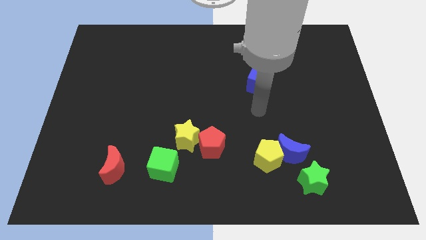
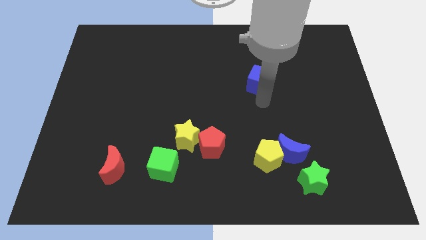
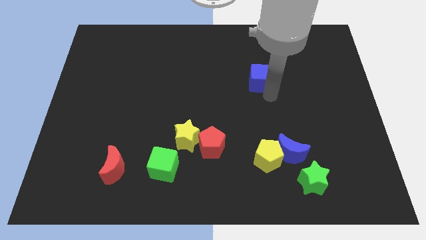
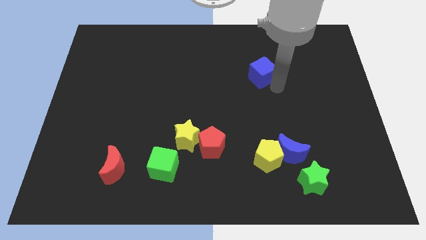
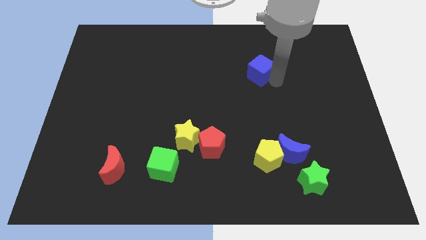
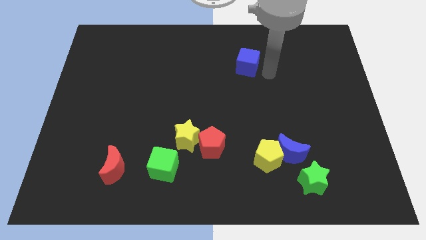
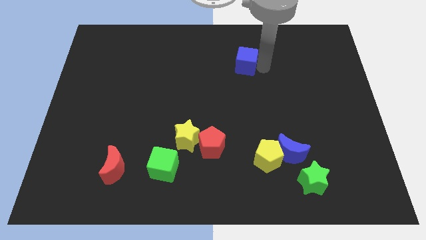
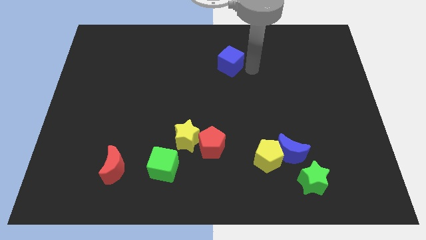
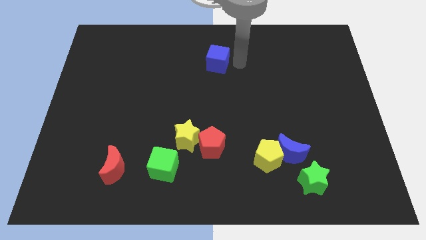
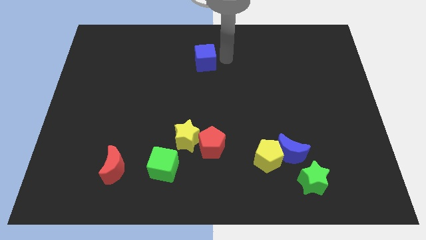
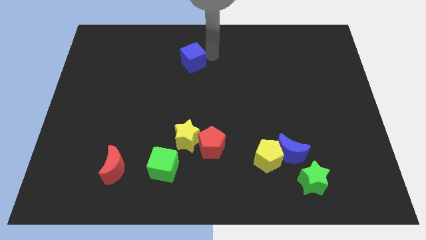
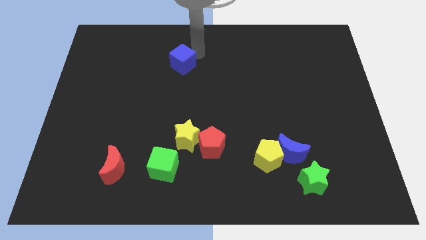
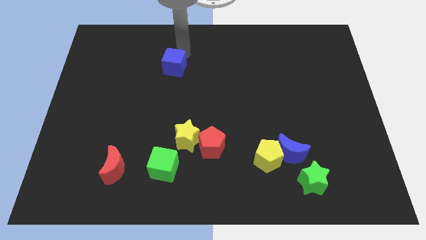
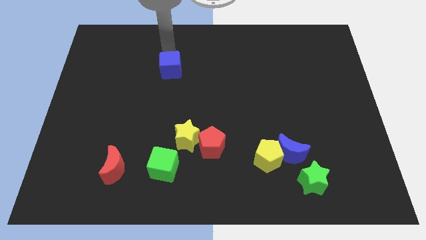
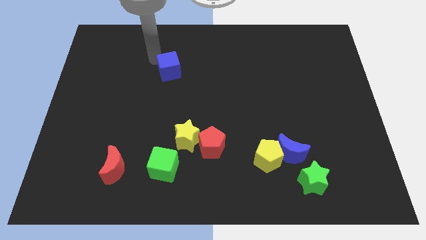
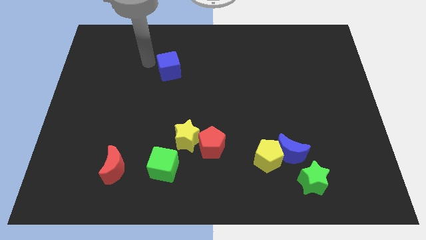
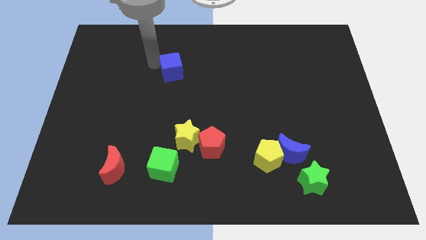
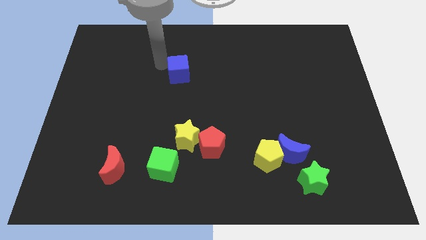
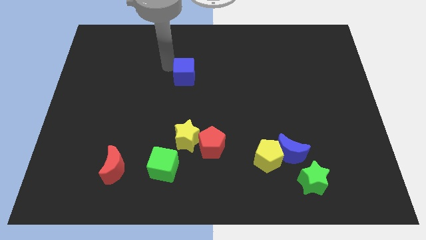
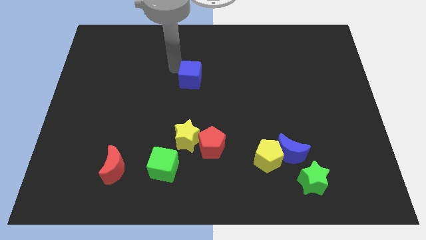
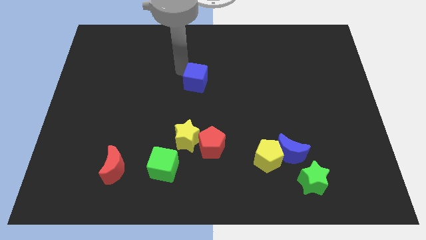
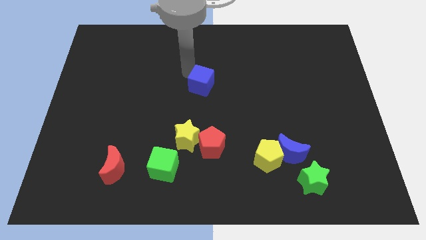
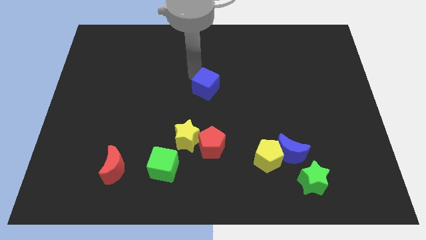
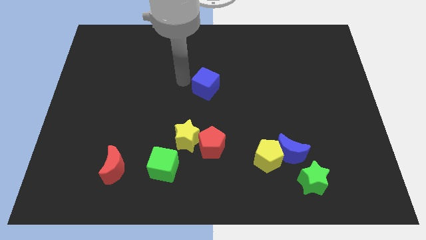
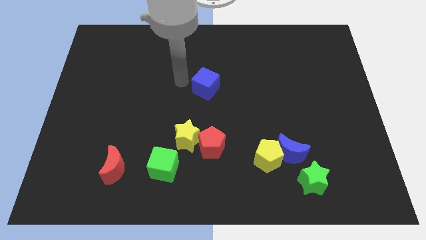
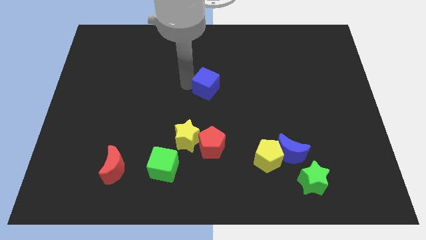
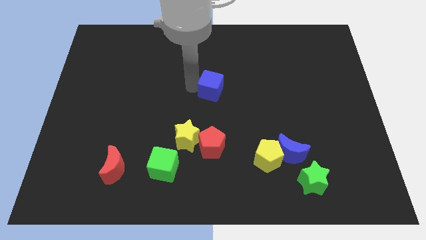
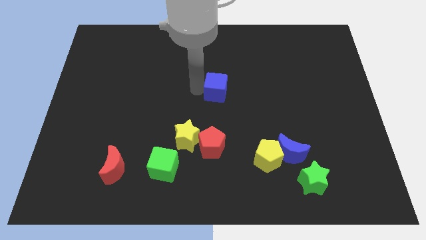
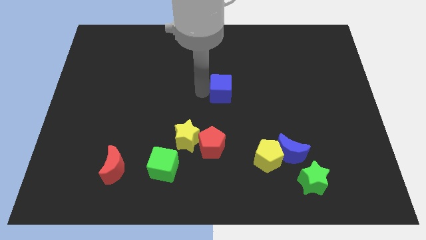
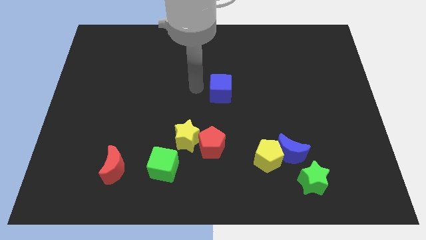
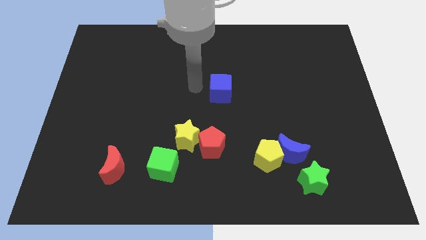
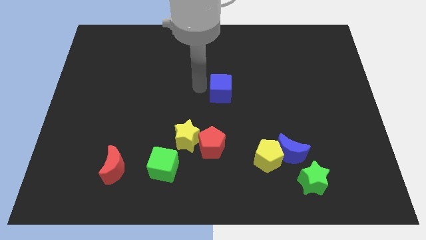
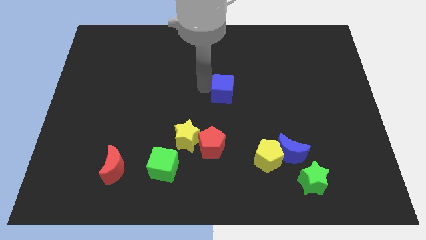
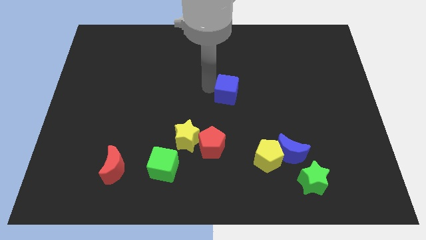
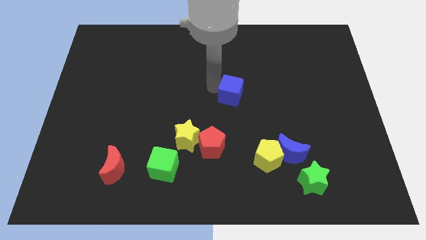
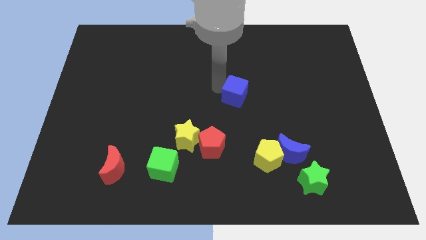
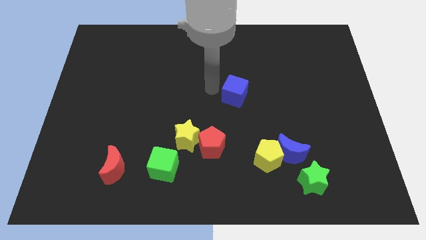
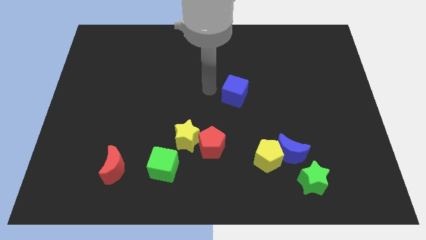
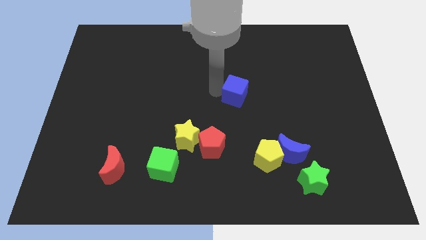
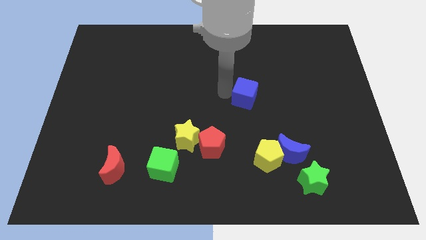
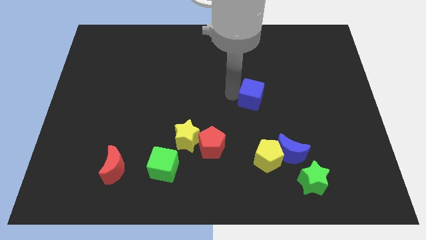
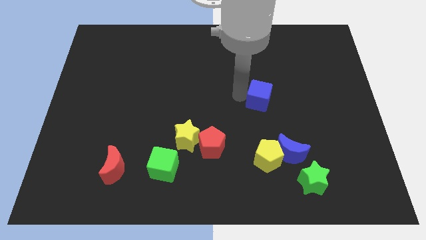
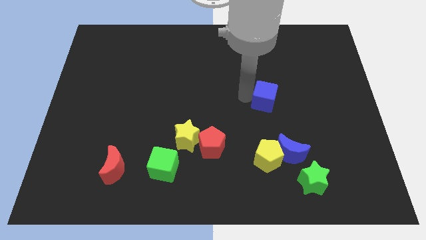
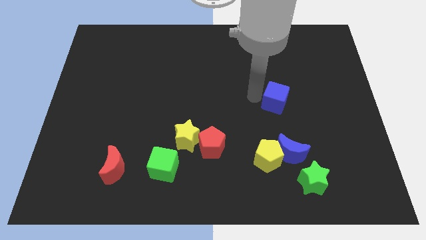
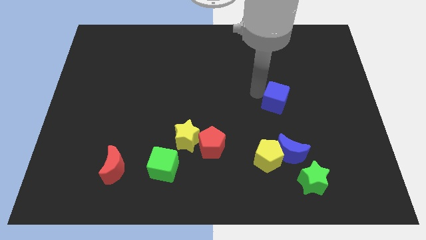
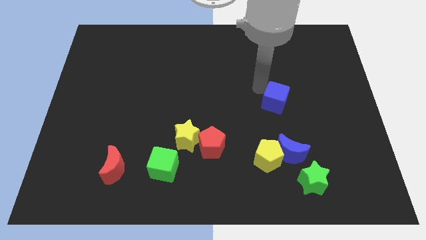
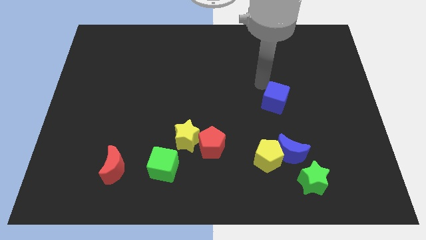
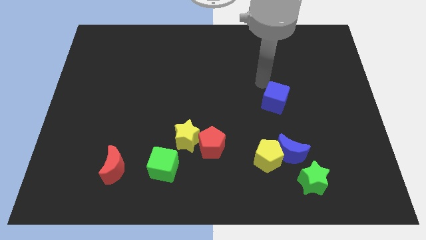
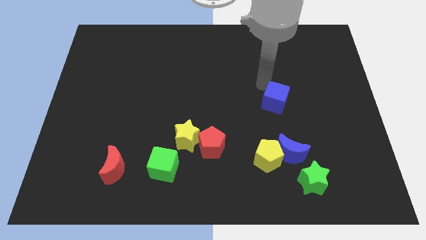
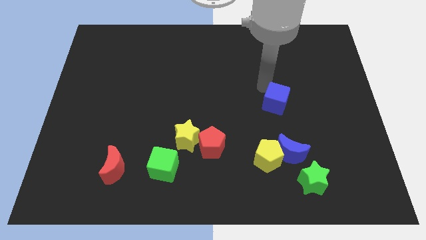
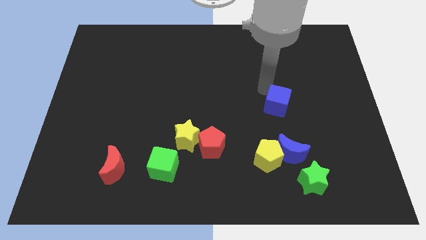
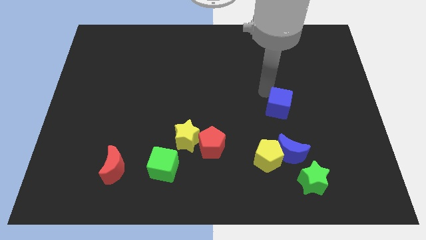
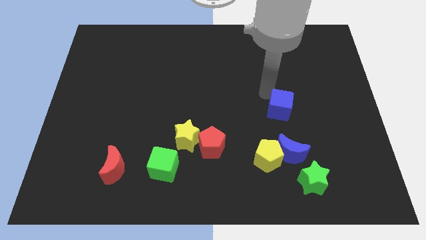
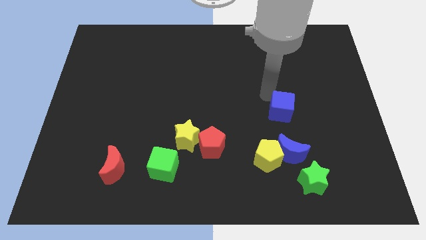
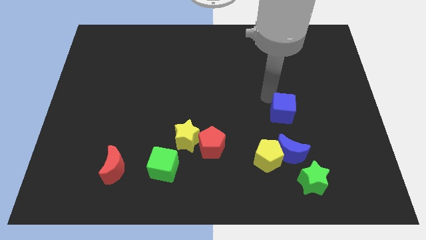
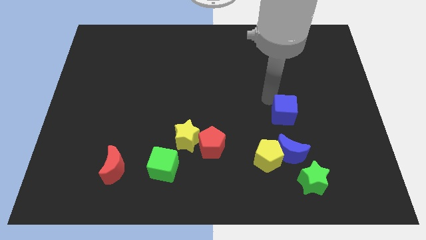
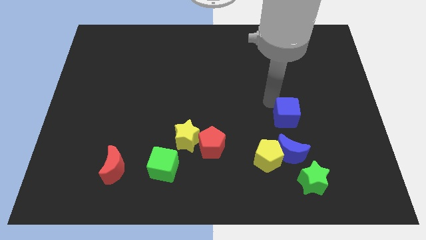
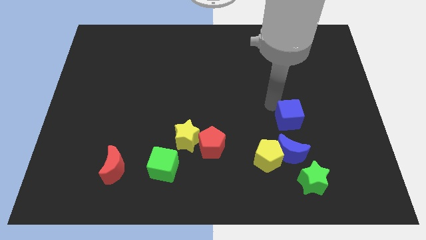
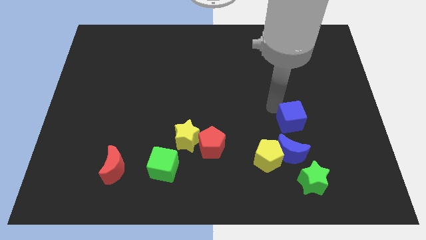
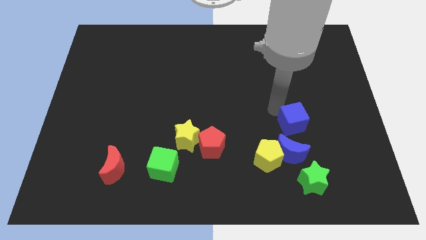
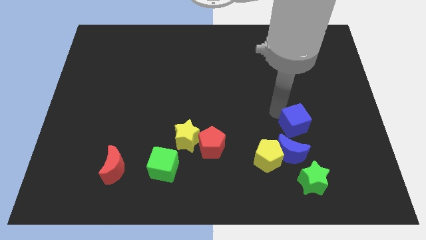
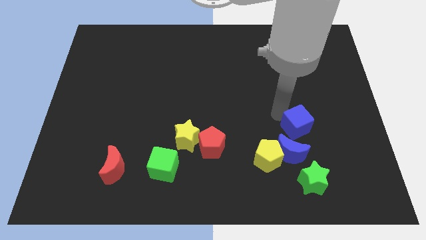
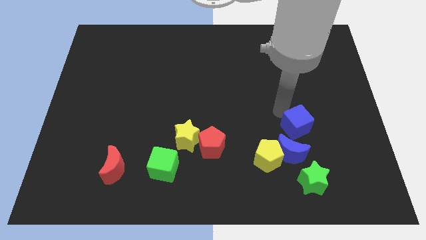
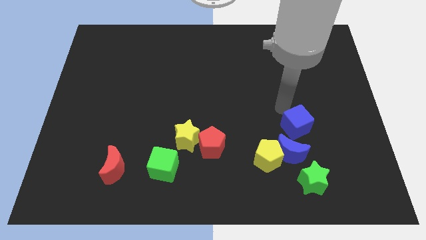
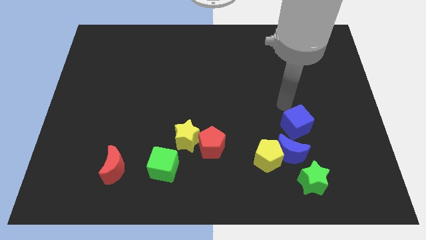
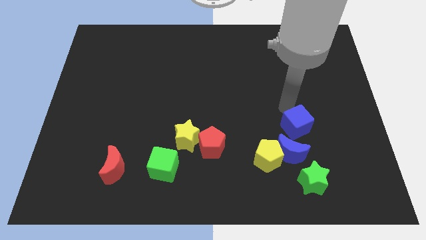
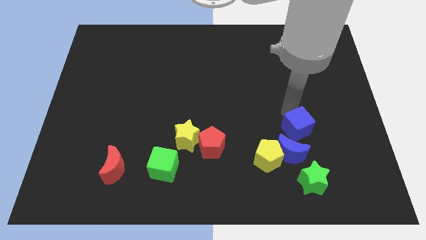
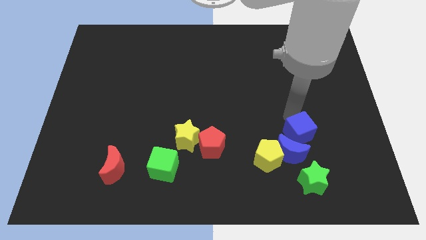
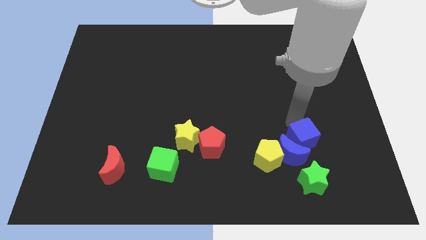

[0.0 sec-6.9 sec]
push the blue cube to the right side of the yellow pentagon

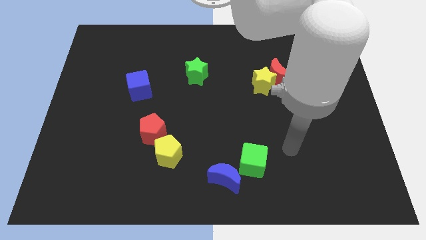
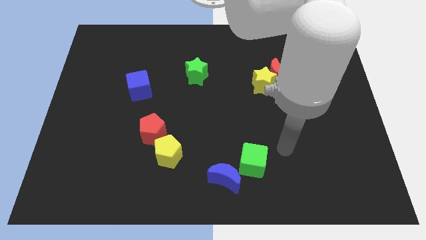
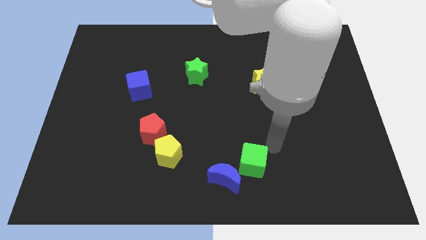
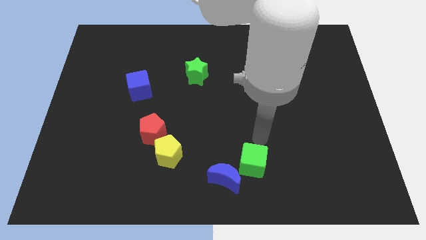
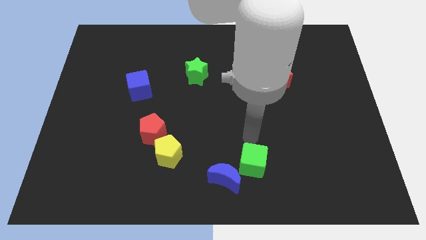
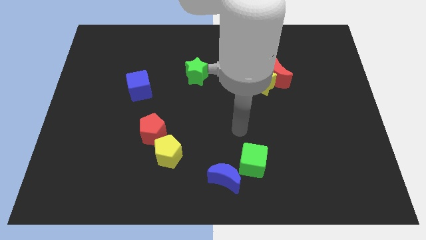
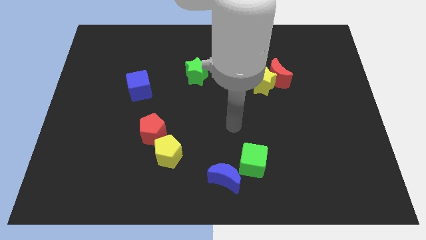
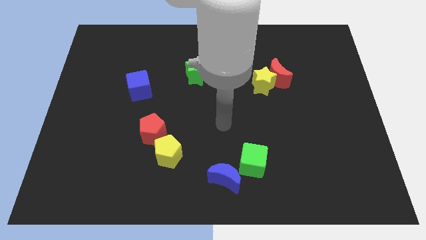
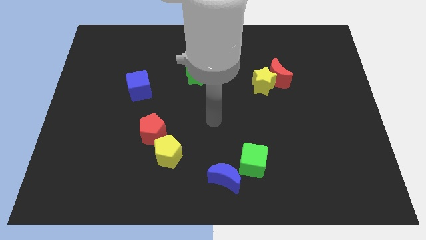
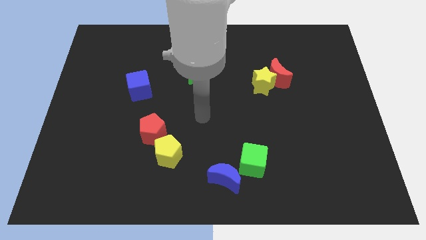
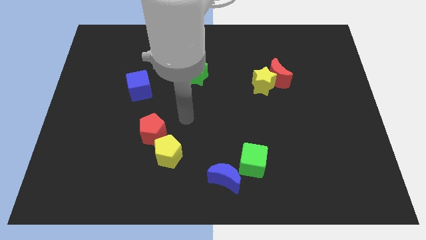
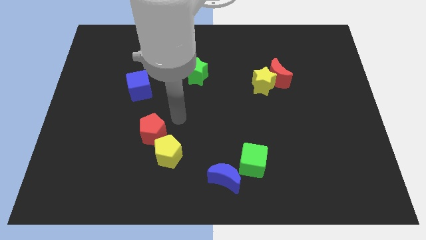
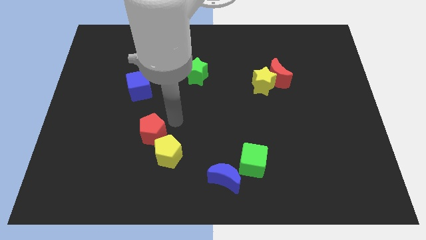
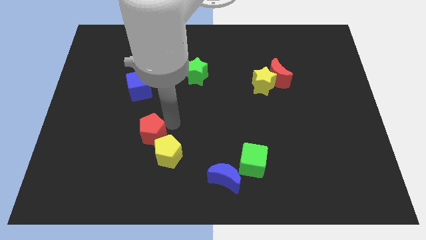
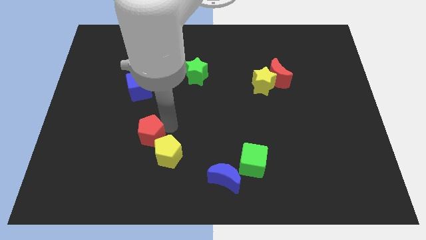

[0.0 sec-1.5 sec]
push the red pentagon left of the yellow pentagon
